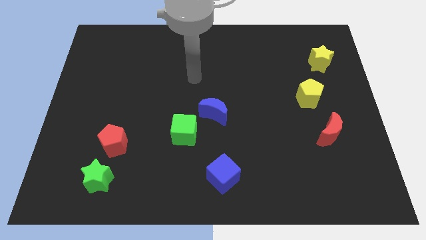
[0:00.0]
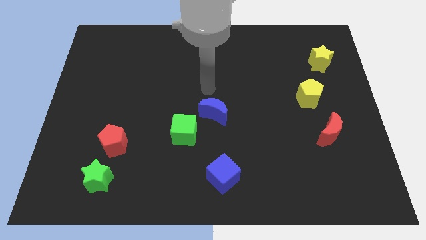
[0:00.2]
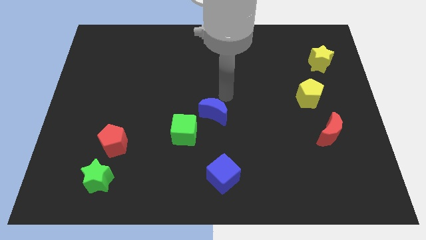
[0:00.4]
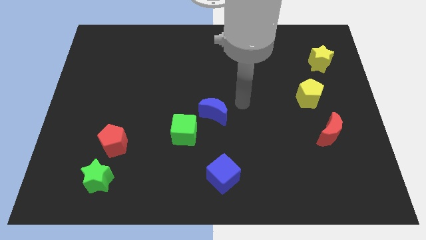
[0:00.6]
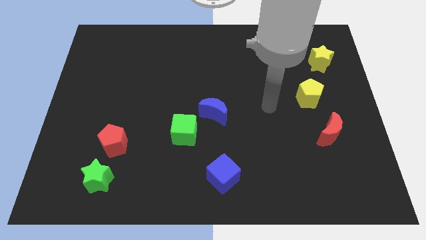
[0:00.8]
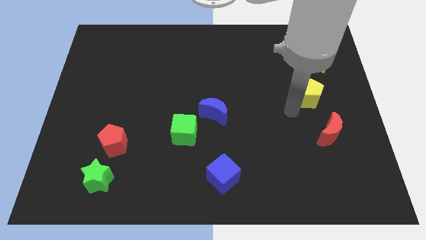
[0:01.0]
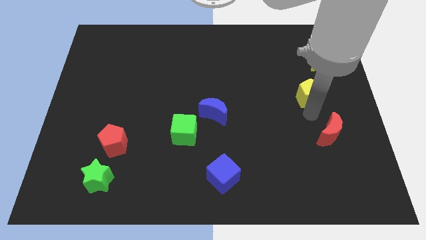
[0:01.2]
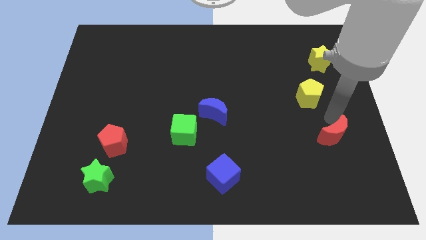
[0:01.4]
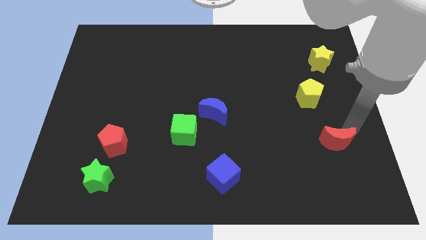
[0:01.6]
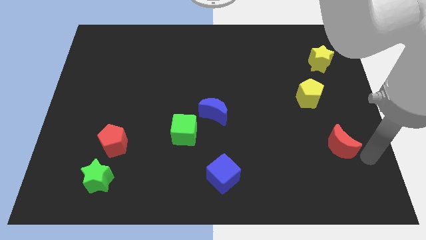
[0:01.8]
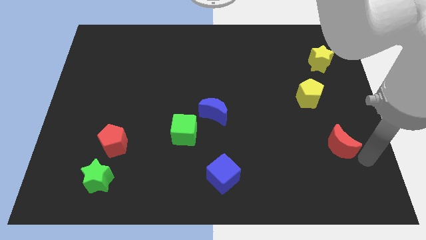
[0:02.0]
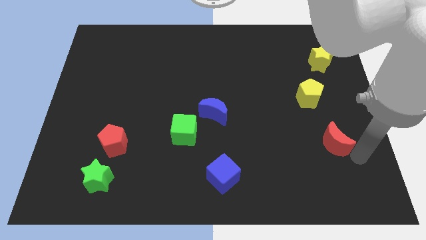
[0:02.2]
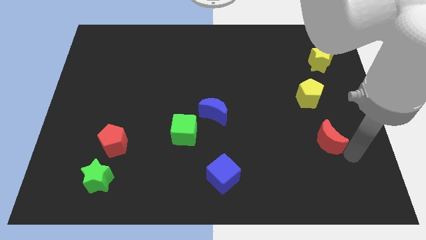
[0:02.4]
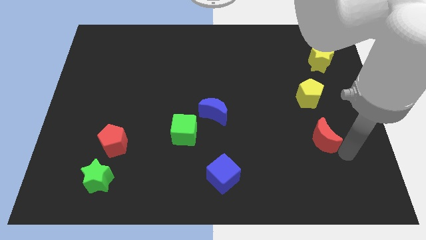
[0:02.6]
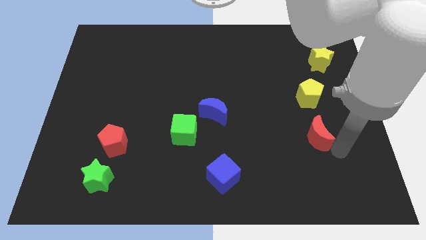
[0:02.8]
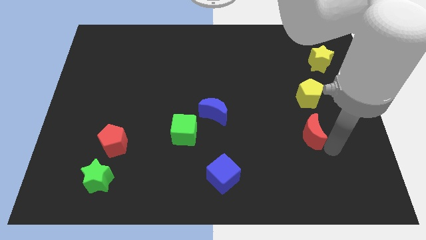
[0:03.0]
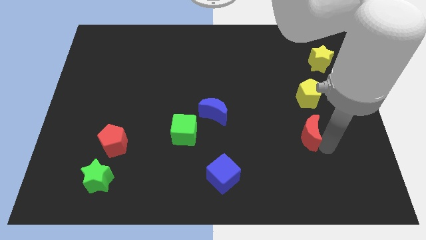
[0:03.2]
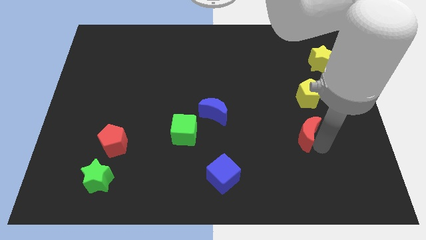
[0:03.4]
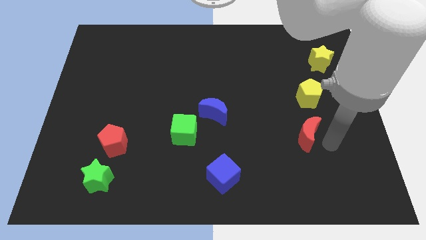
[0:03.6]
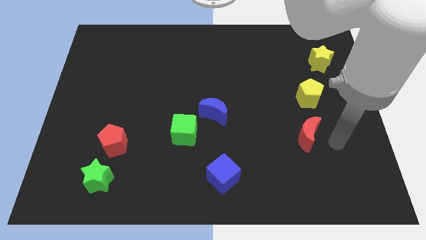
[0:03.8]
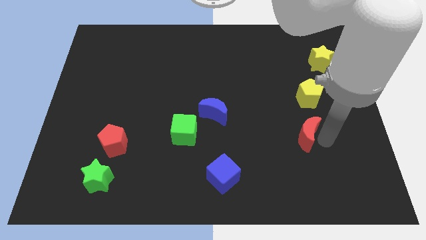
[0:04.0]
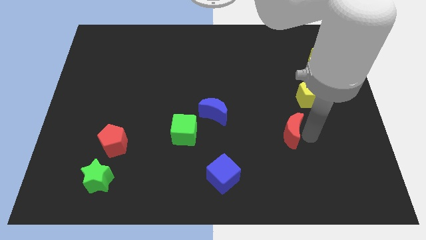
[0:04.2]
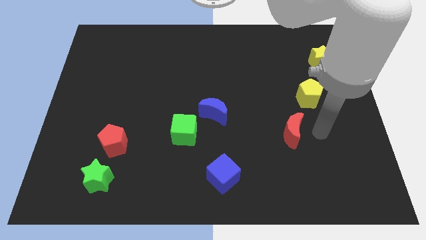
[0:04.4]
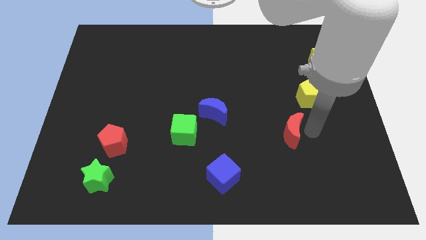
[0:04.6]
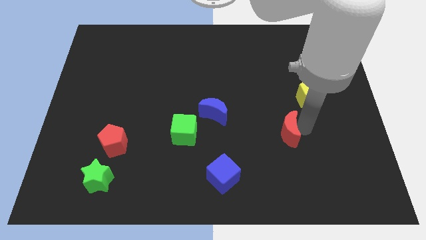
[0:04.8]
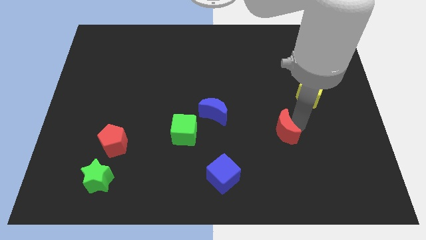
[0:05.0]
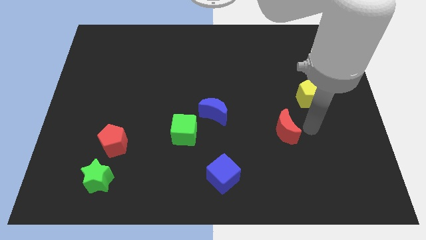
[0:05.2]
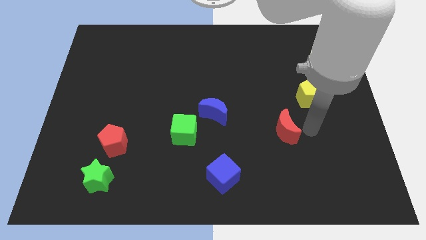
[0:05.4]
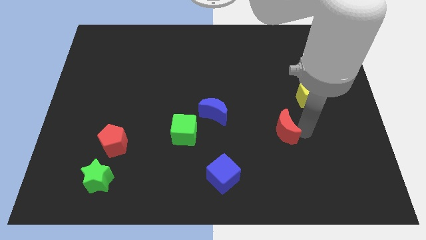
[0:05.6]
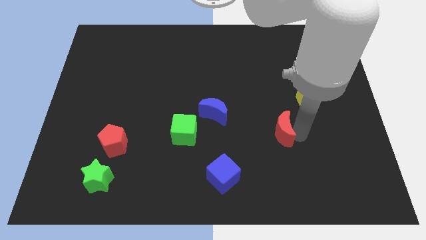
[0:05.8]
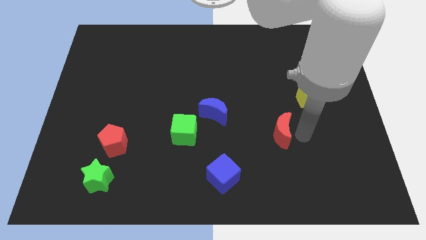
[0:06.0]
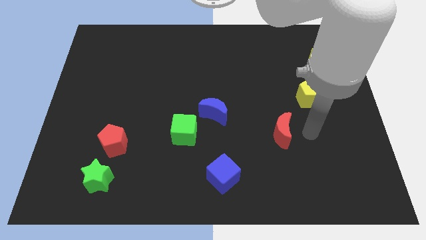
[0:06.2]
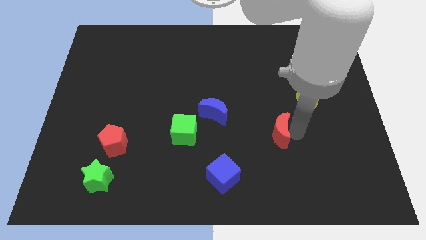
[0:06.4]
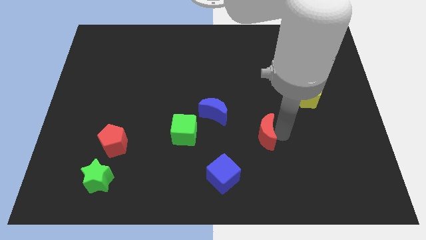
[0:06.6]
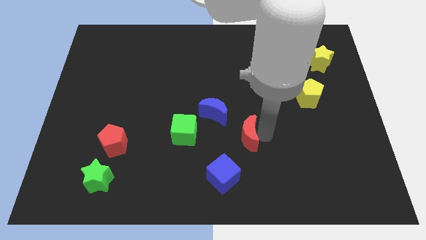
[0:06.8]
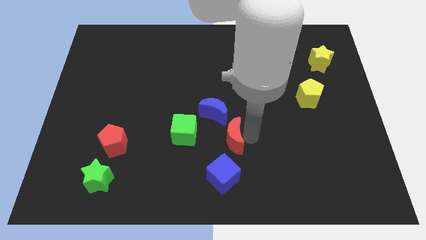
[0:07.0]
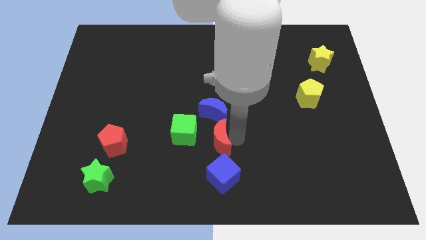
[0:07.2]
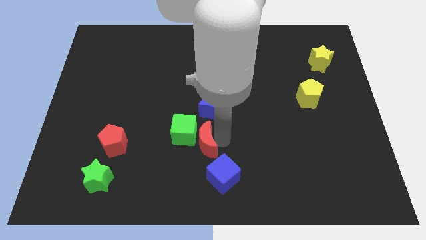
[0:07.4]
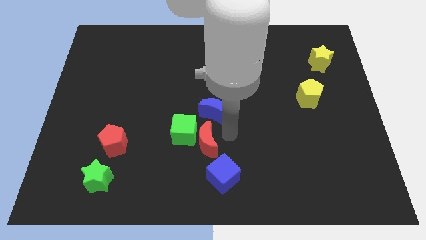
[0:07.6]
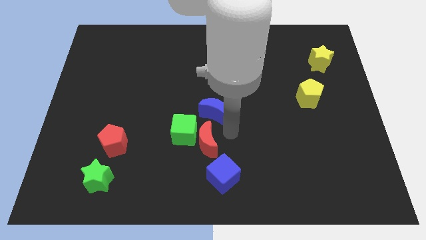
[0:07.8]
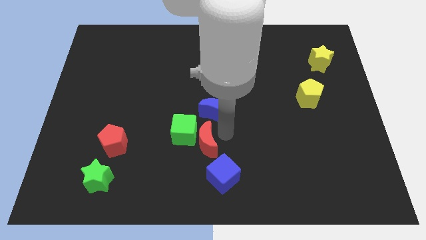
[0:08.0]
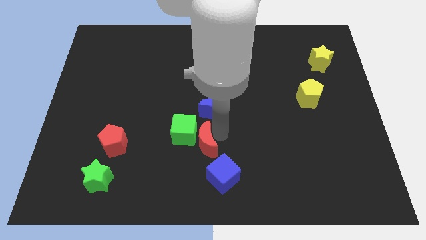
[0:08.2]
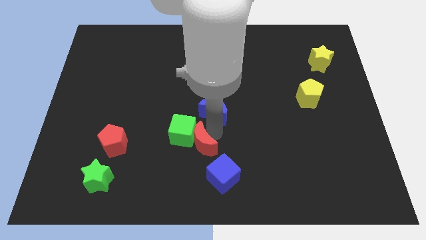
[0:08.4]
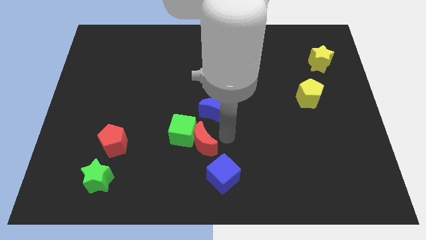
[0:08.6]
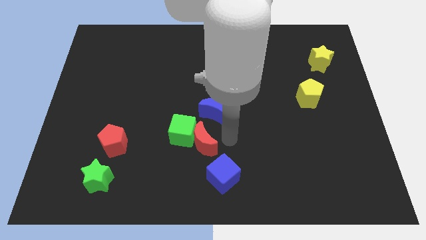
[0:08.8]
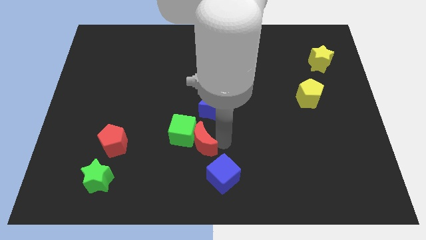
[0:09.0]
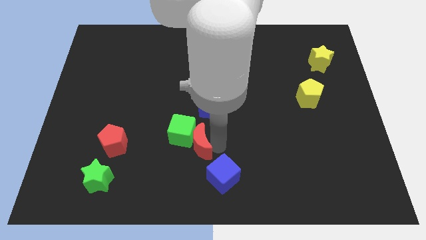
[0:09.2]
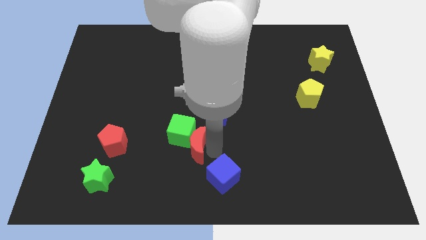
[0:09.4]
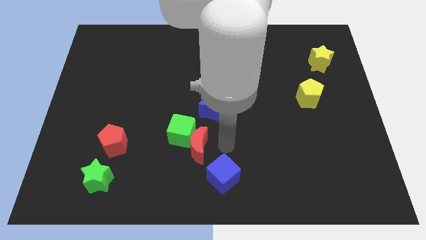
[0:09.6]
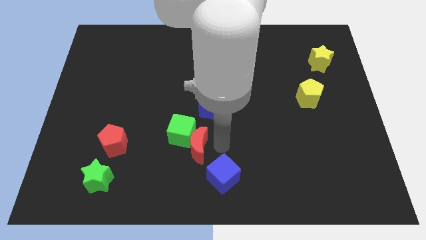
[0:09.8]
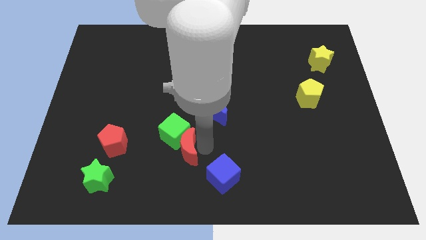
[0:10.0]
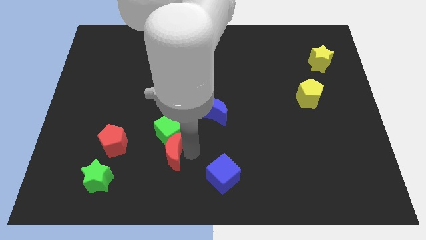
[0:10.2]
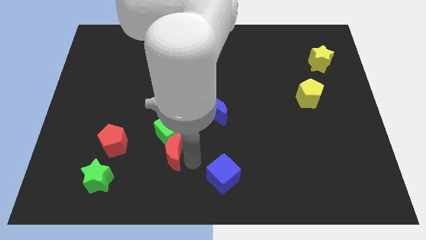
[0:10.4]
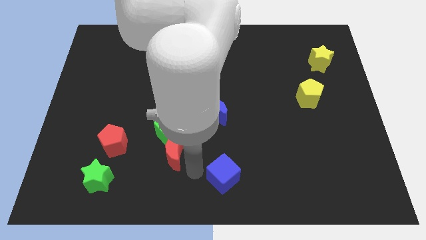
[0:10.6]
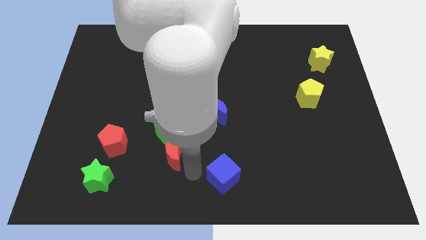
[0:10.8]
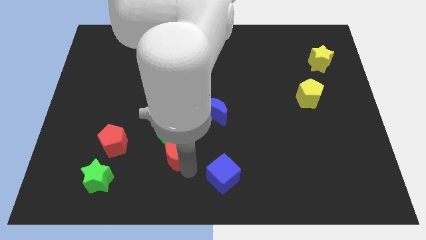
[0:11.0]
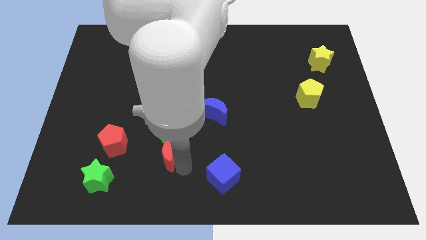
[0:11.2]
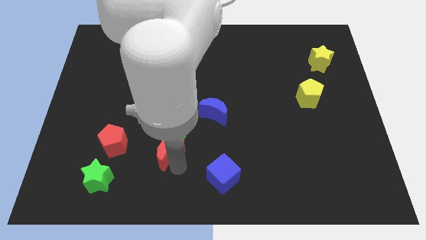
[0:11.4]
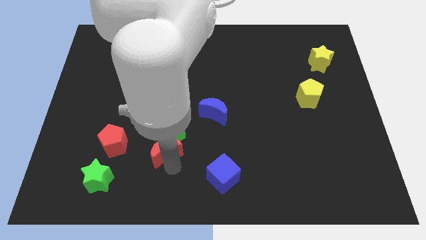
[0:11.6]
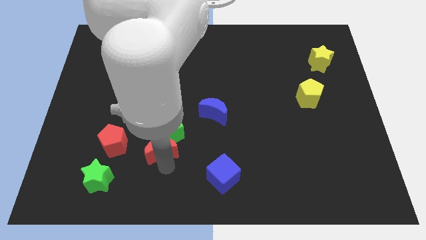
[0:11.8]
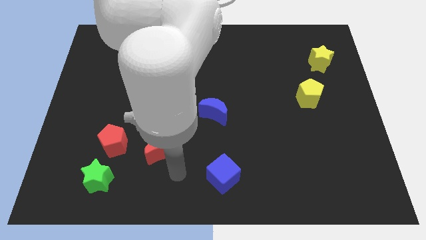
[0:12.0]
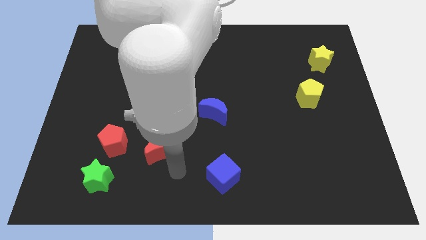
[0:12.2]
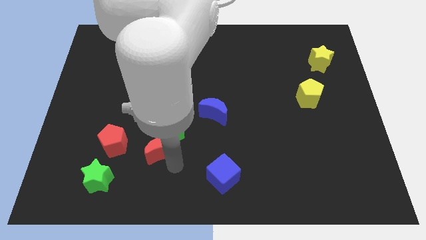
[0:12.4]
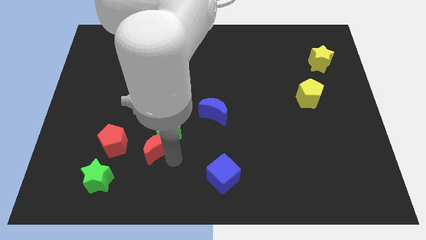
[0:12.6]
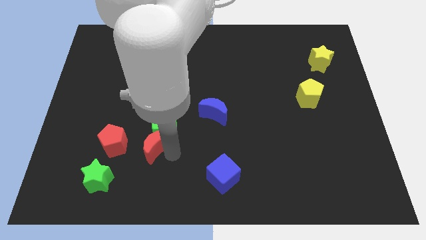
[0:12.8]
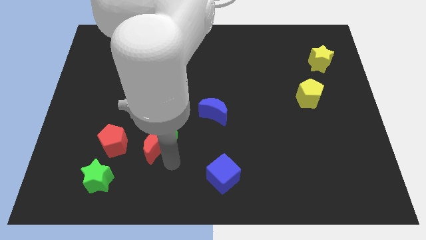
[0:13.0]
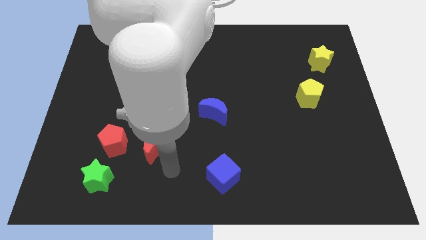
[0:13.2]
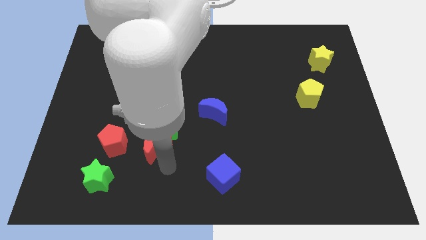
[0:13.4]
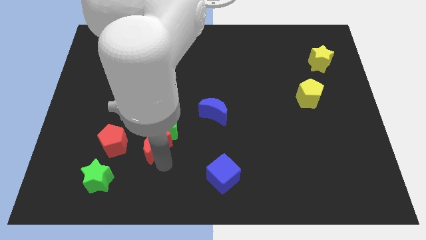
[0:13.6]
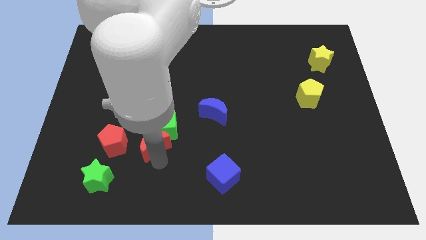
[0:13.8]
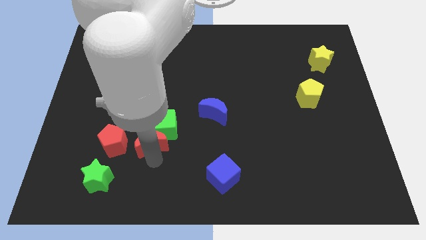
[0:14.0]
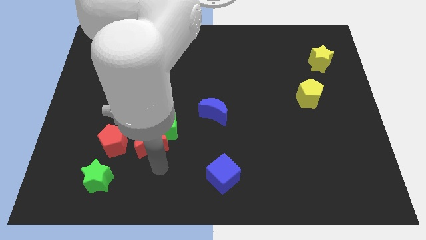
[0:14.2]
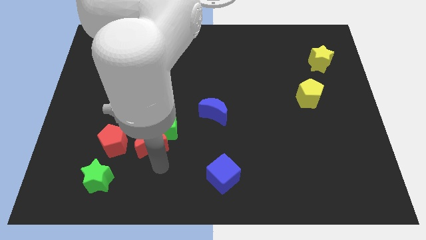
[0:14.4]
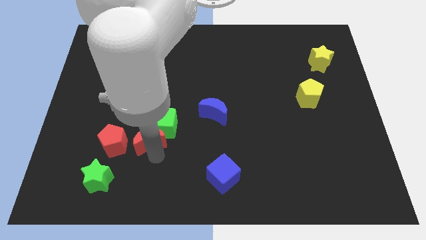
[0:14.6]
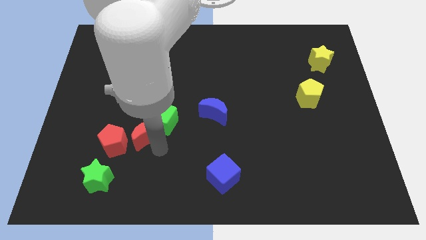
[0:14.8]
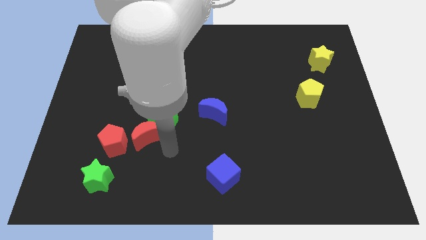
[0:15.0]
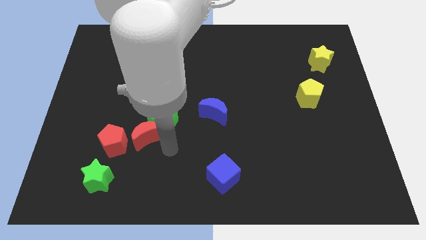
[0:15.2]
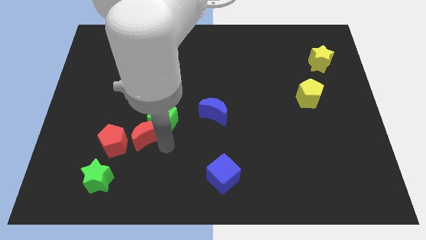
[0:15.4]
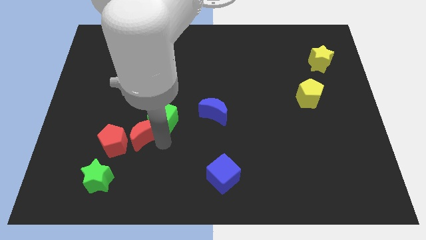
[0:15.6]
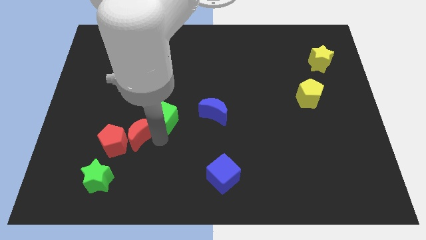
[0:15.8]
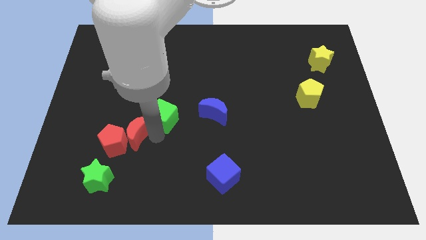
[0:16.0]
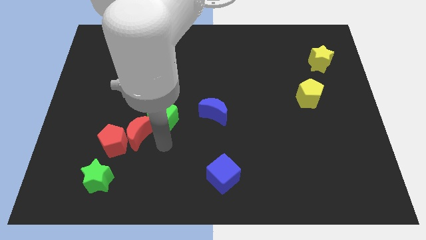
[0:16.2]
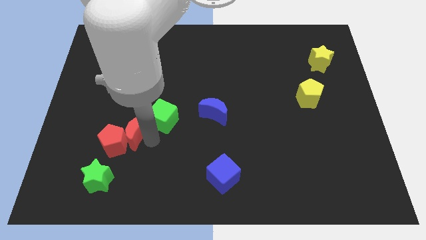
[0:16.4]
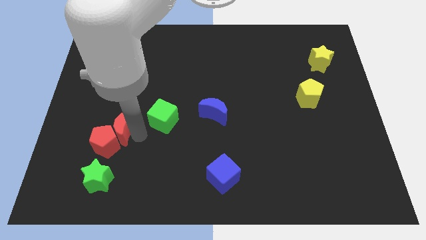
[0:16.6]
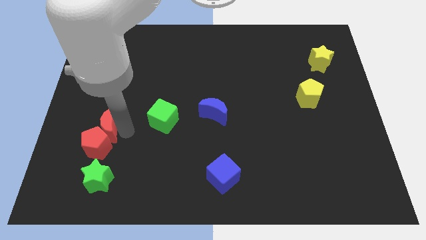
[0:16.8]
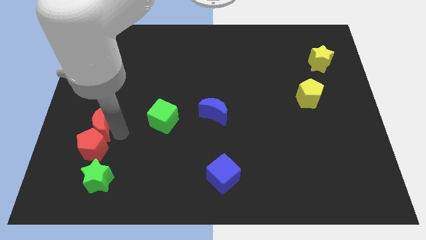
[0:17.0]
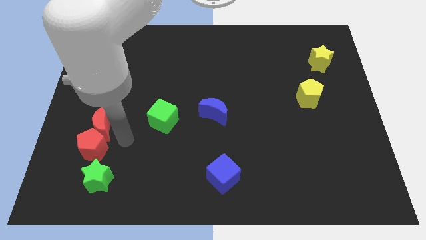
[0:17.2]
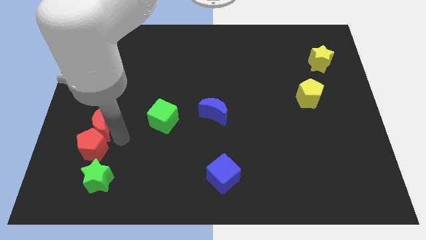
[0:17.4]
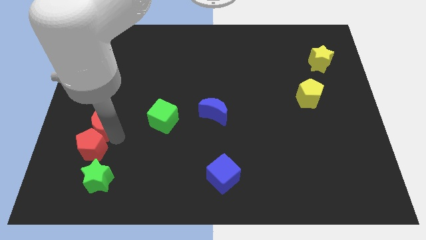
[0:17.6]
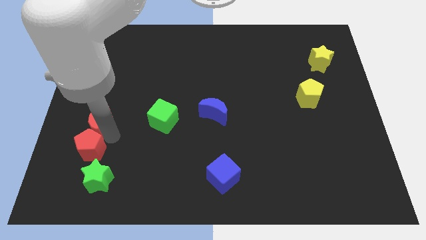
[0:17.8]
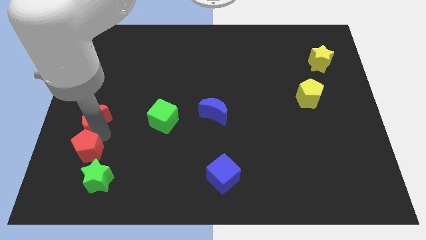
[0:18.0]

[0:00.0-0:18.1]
put the red moon to the center left
